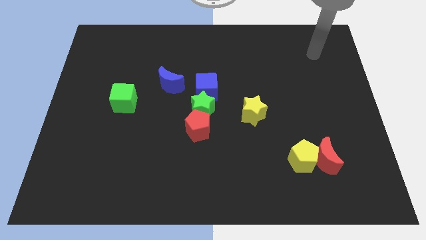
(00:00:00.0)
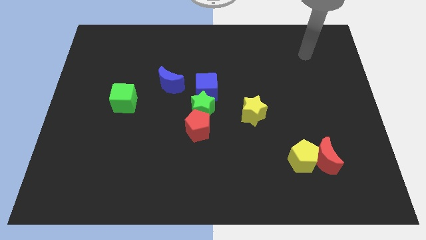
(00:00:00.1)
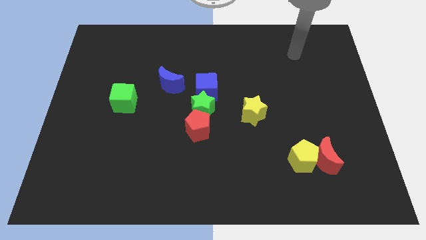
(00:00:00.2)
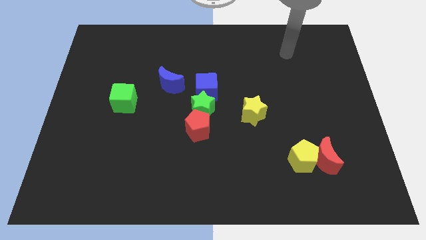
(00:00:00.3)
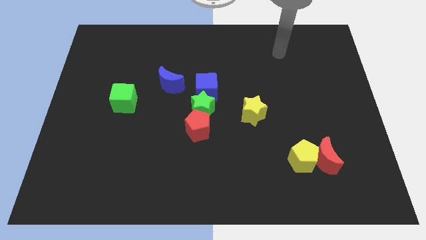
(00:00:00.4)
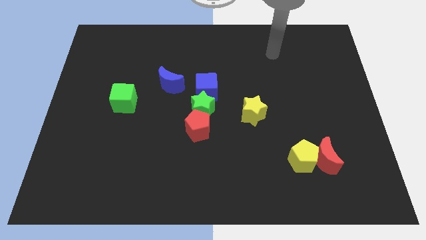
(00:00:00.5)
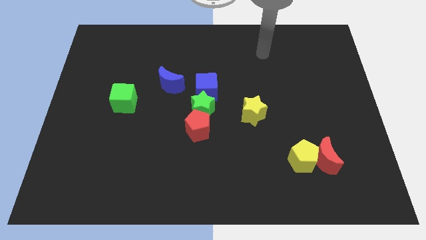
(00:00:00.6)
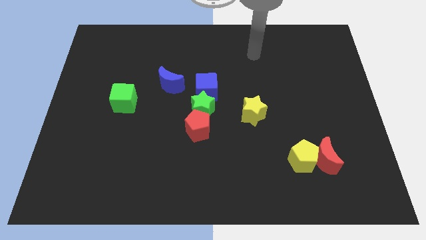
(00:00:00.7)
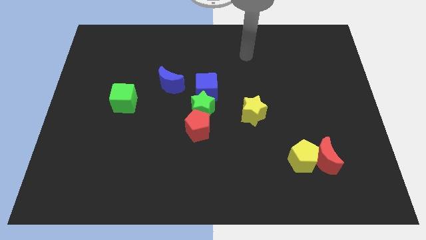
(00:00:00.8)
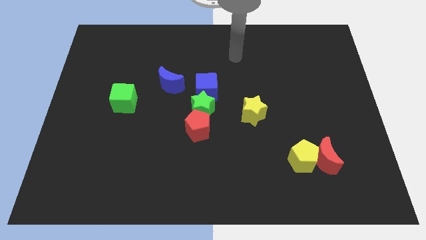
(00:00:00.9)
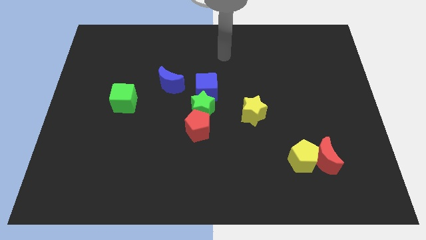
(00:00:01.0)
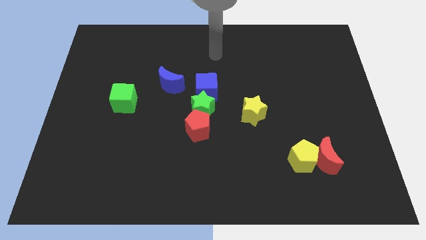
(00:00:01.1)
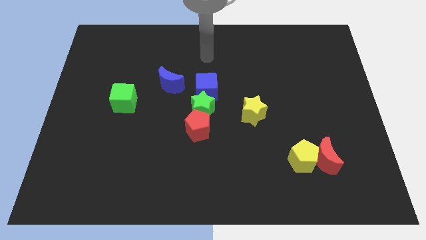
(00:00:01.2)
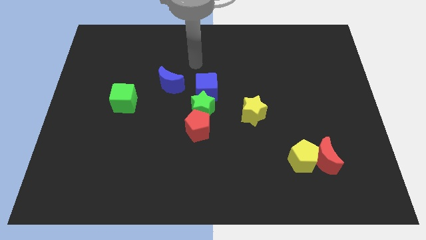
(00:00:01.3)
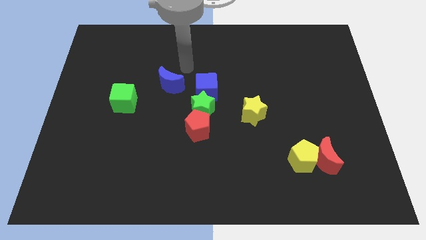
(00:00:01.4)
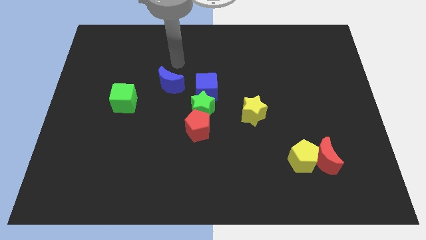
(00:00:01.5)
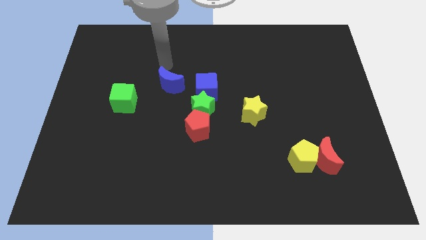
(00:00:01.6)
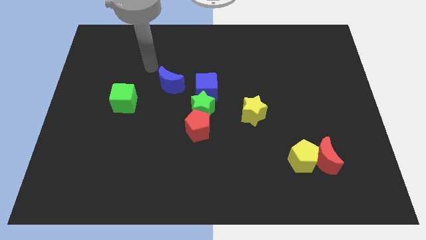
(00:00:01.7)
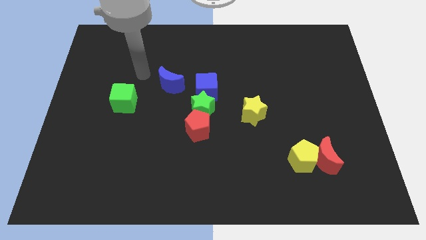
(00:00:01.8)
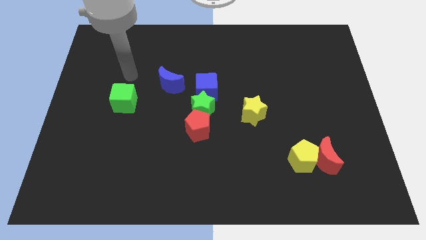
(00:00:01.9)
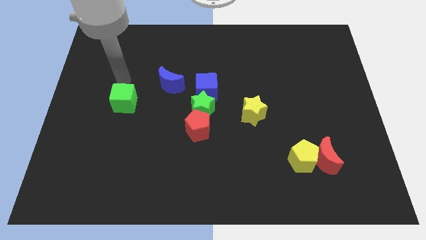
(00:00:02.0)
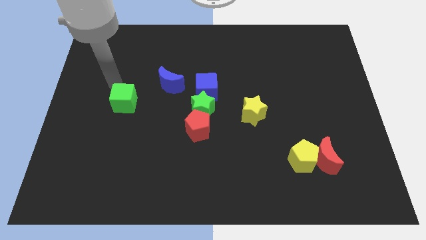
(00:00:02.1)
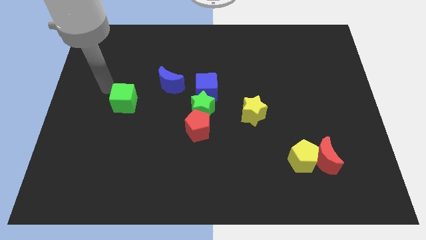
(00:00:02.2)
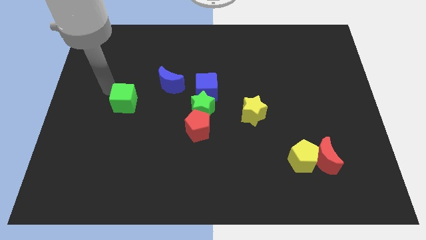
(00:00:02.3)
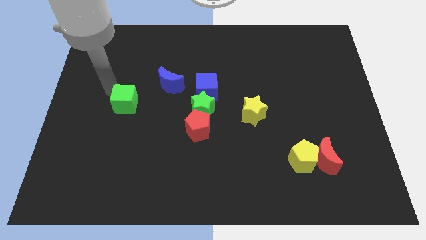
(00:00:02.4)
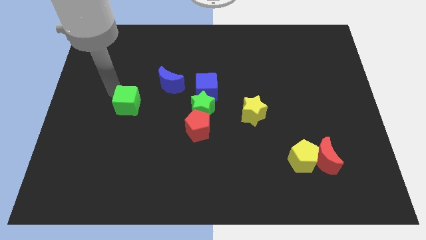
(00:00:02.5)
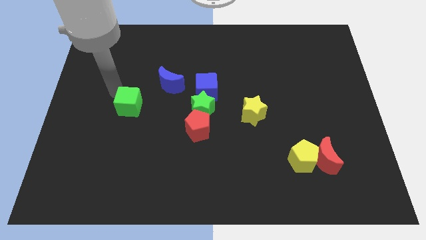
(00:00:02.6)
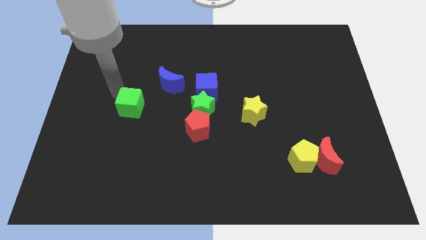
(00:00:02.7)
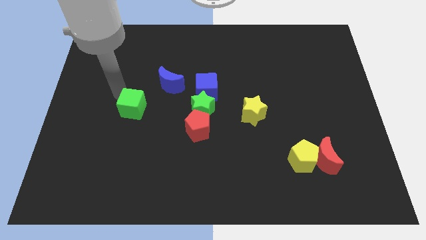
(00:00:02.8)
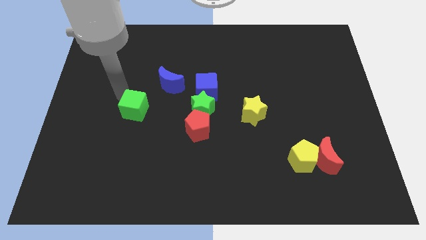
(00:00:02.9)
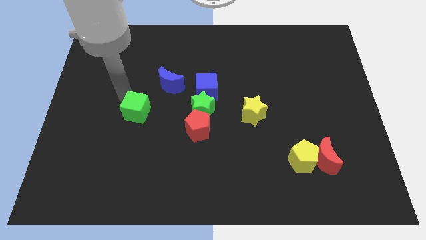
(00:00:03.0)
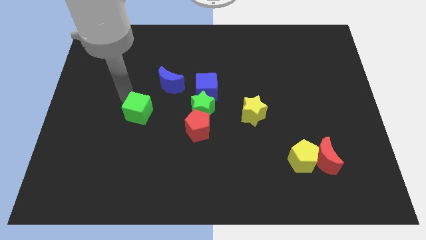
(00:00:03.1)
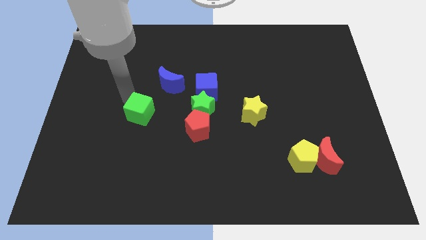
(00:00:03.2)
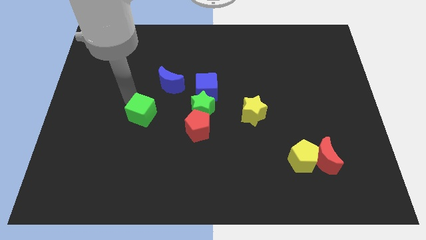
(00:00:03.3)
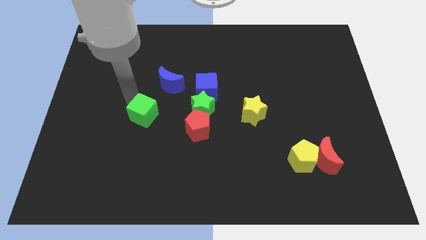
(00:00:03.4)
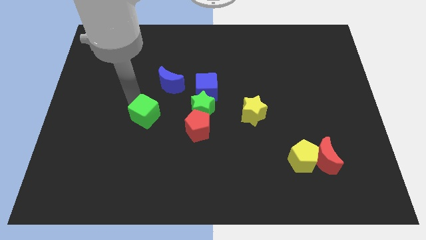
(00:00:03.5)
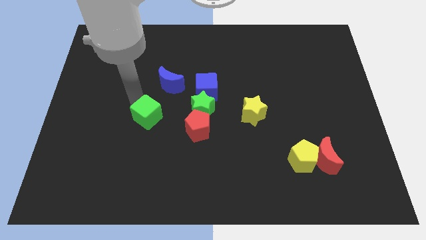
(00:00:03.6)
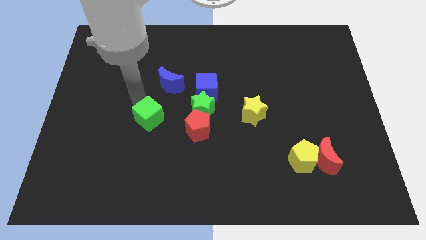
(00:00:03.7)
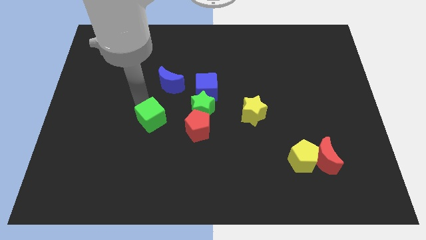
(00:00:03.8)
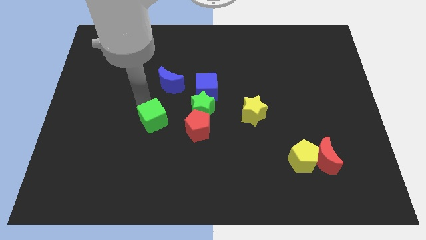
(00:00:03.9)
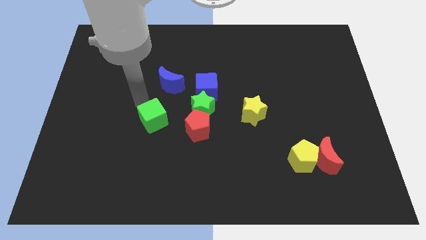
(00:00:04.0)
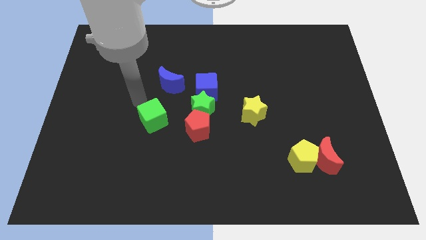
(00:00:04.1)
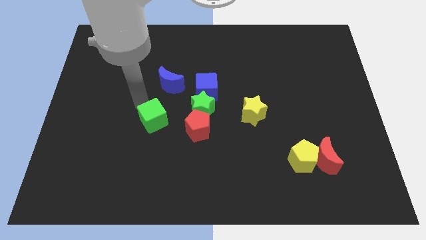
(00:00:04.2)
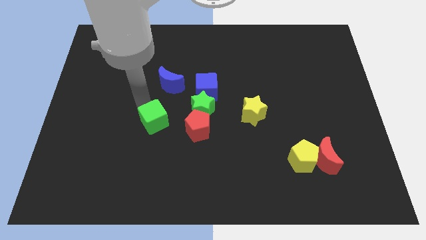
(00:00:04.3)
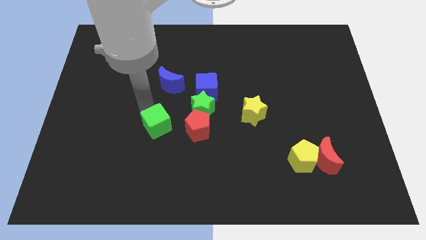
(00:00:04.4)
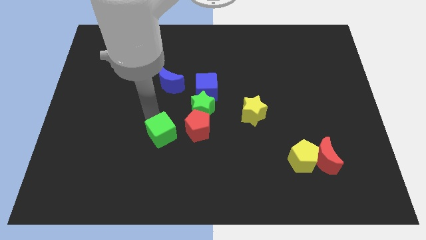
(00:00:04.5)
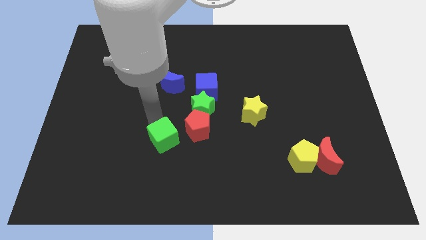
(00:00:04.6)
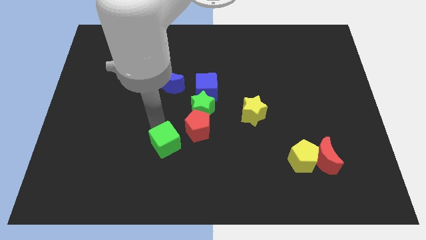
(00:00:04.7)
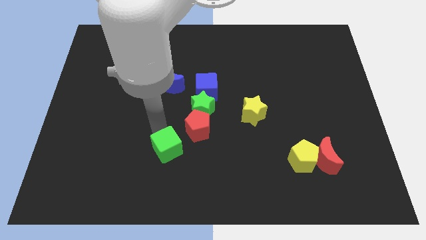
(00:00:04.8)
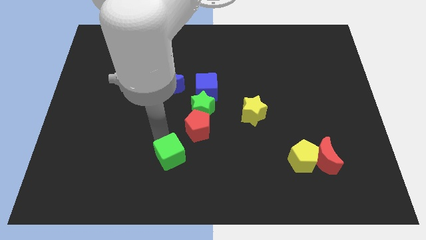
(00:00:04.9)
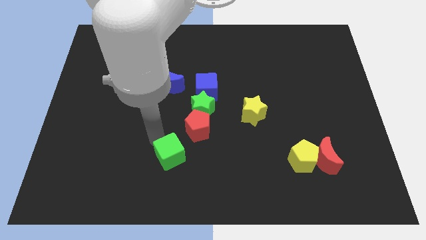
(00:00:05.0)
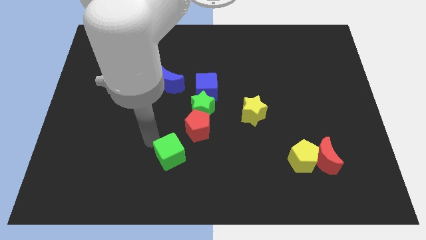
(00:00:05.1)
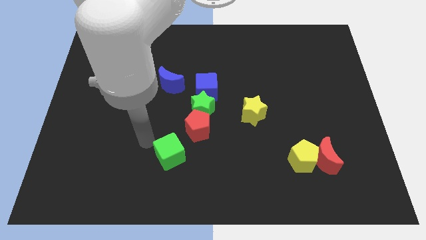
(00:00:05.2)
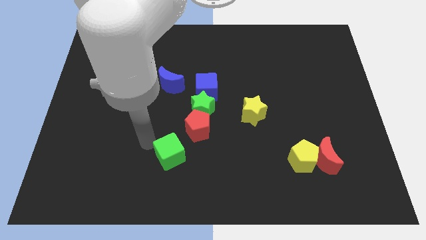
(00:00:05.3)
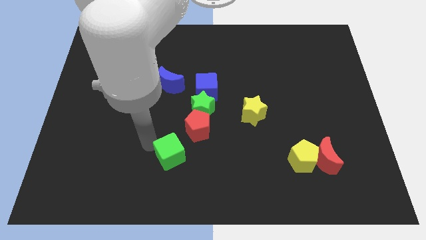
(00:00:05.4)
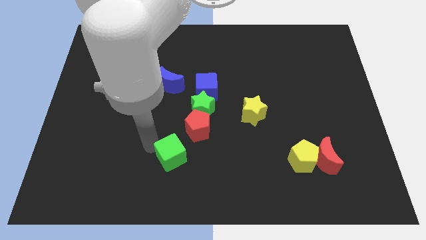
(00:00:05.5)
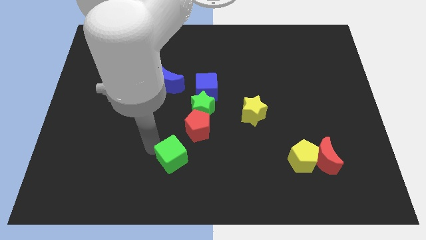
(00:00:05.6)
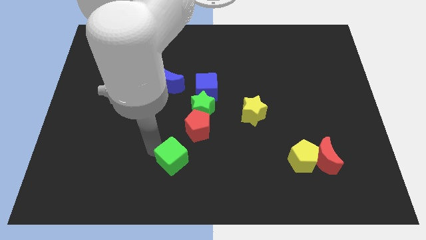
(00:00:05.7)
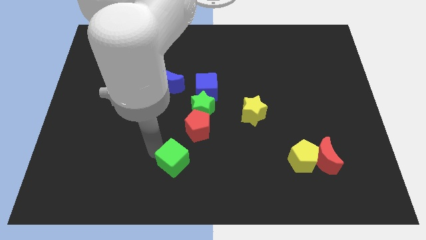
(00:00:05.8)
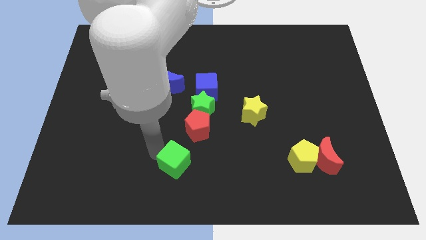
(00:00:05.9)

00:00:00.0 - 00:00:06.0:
slide the green cube to the bottom side
